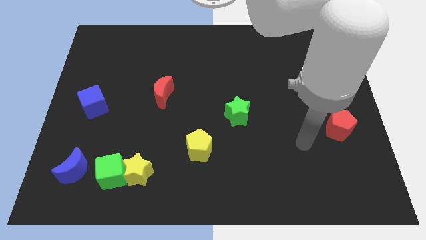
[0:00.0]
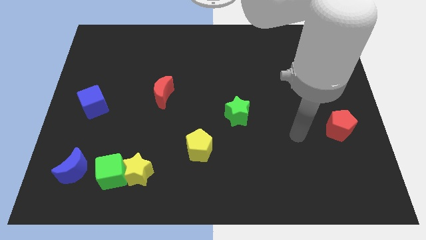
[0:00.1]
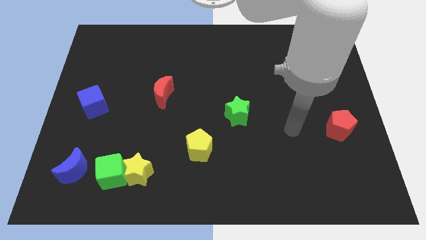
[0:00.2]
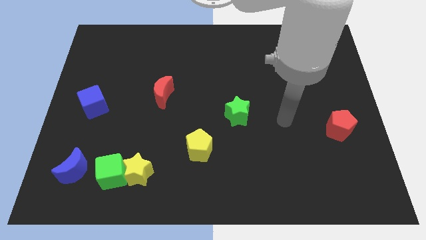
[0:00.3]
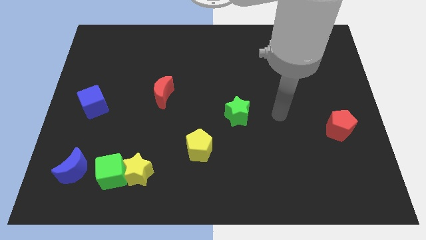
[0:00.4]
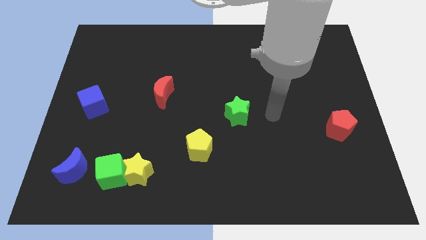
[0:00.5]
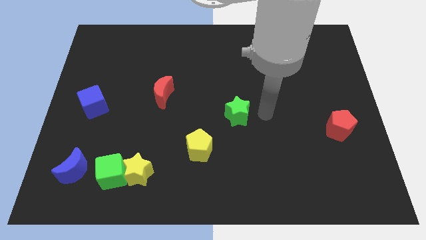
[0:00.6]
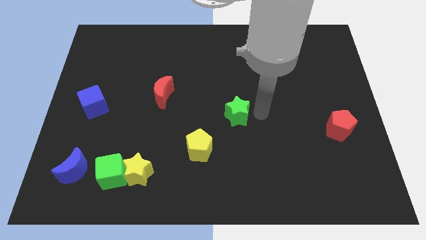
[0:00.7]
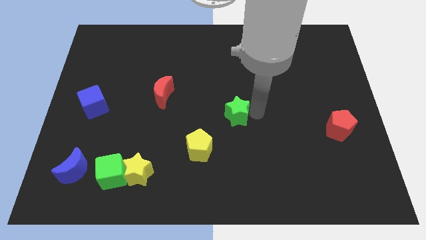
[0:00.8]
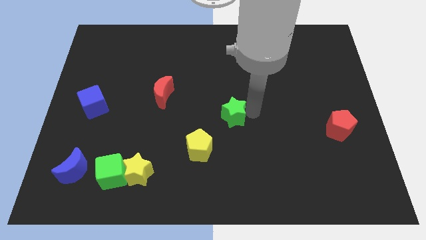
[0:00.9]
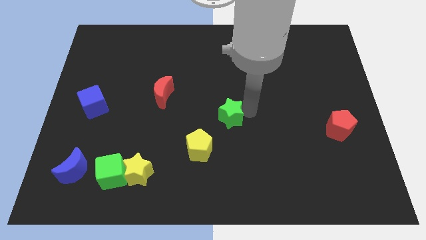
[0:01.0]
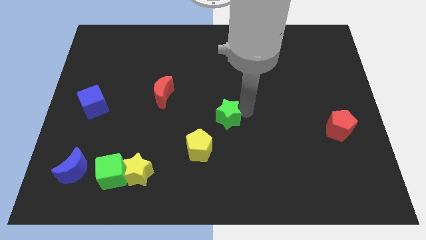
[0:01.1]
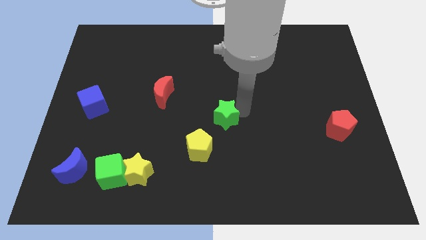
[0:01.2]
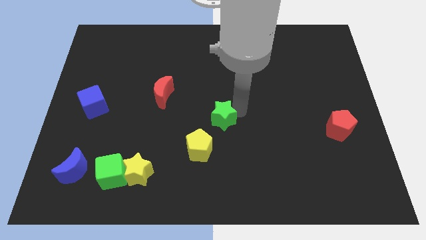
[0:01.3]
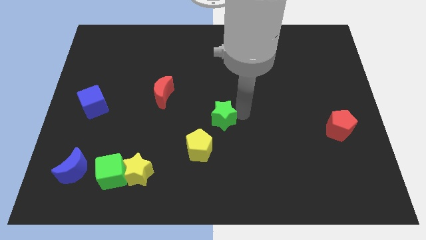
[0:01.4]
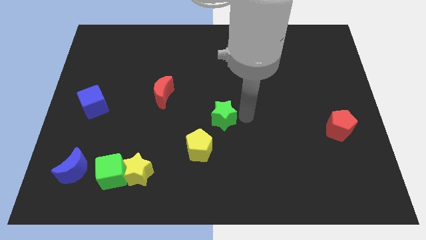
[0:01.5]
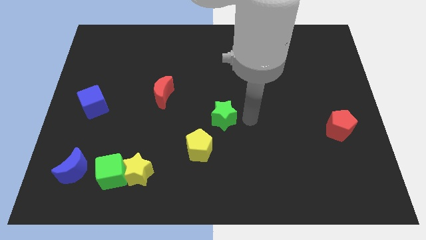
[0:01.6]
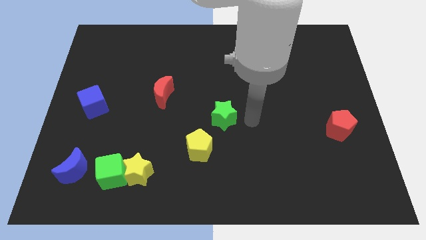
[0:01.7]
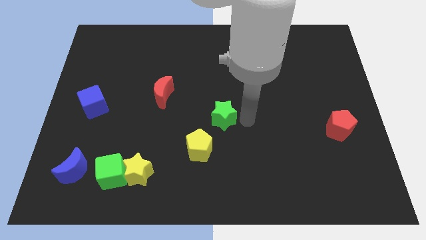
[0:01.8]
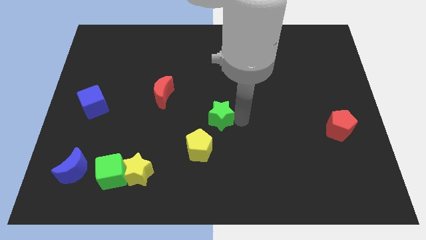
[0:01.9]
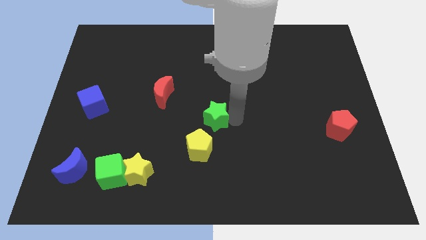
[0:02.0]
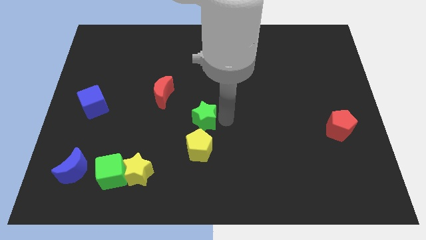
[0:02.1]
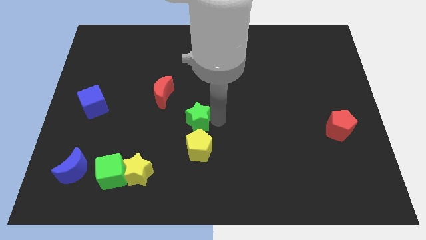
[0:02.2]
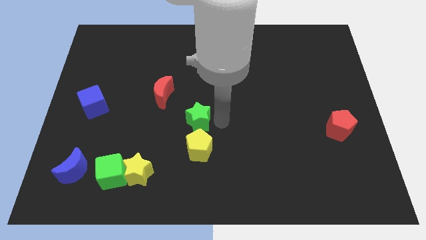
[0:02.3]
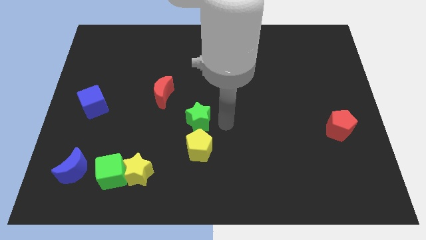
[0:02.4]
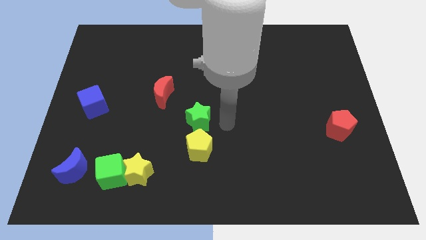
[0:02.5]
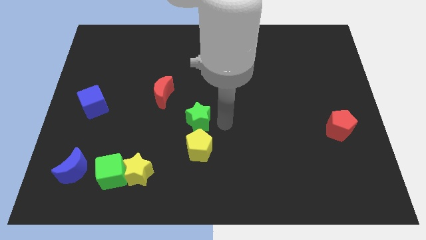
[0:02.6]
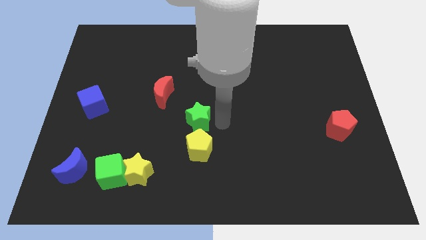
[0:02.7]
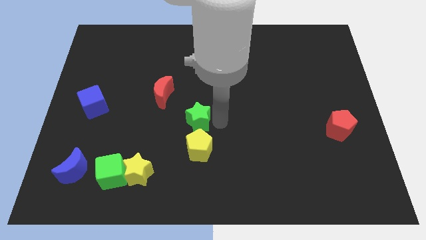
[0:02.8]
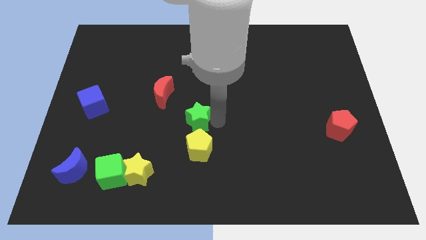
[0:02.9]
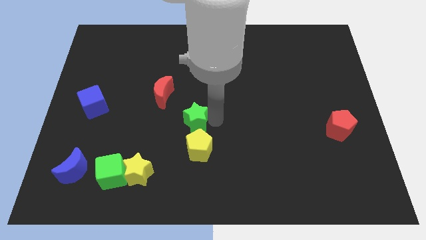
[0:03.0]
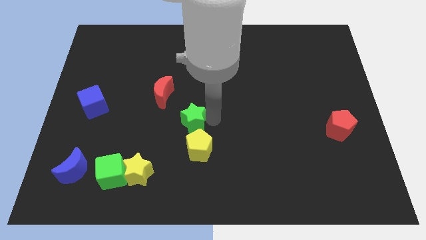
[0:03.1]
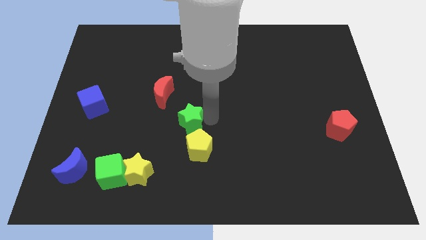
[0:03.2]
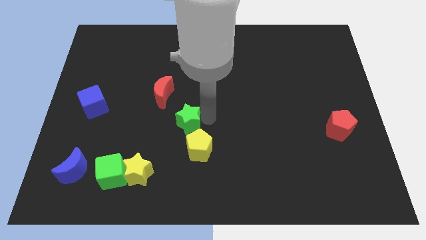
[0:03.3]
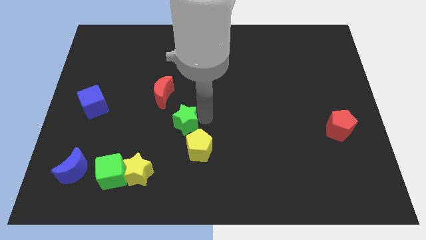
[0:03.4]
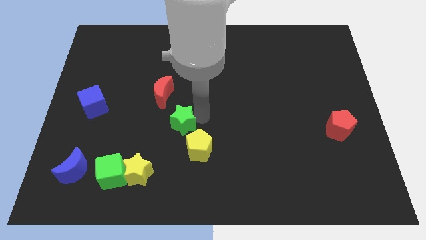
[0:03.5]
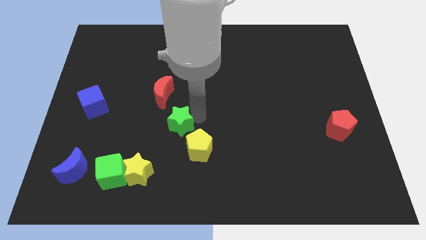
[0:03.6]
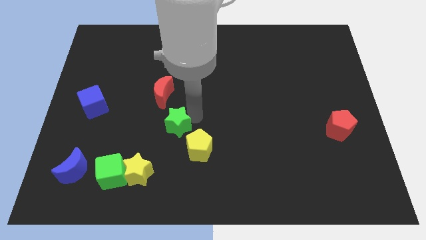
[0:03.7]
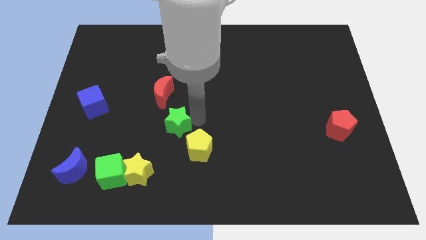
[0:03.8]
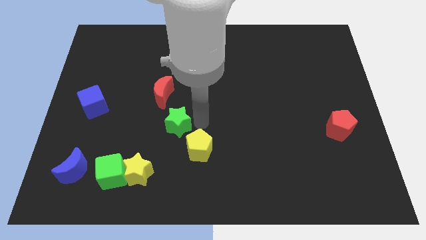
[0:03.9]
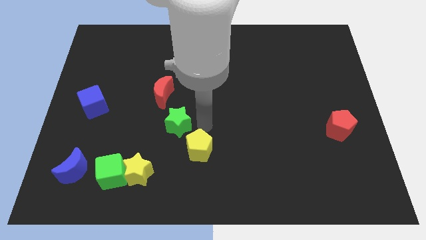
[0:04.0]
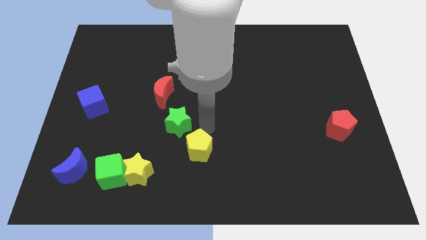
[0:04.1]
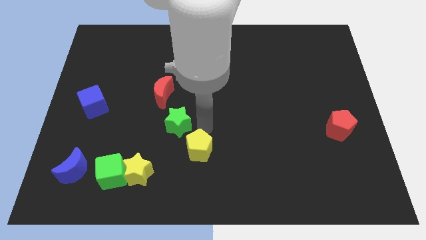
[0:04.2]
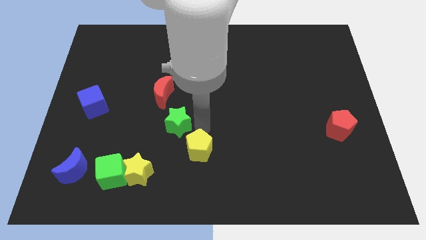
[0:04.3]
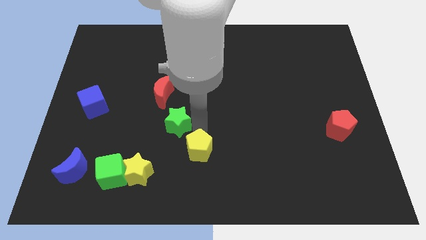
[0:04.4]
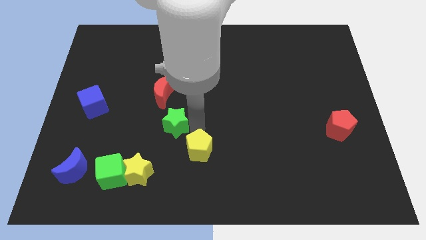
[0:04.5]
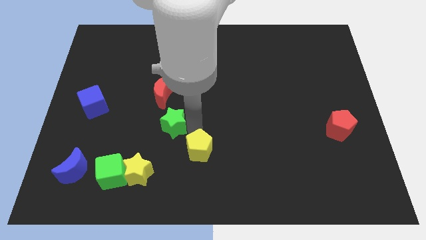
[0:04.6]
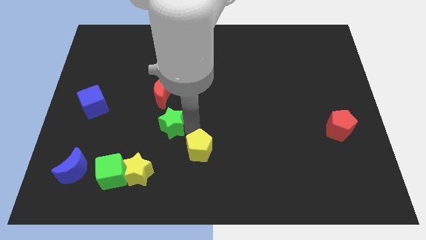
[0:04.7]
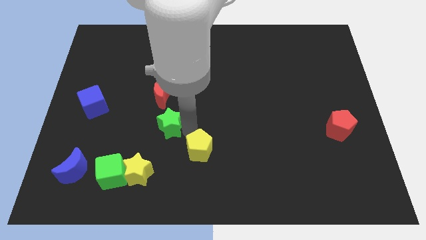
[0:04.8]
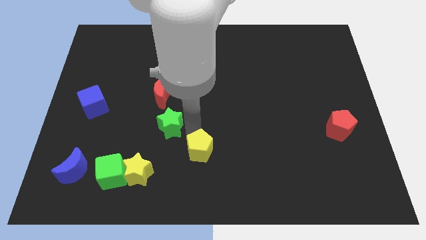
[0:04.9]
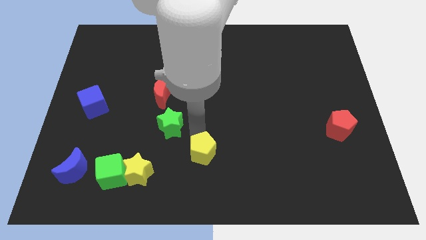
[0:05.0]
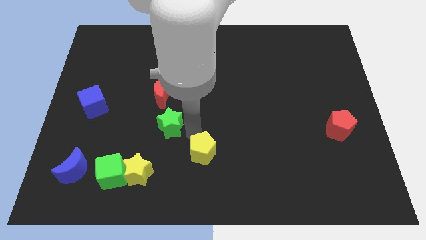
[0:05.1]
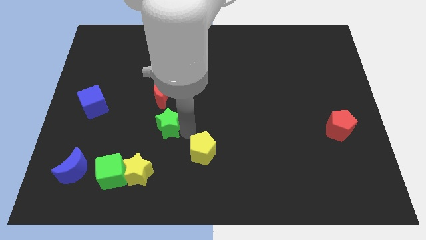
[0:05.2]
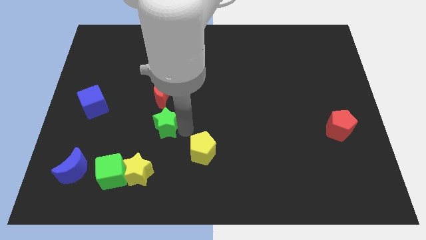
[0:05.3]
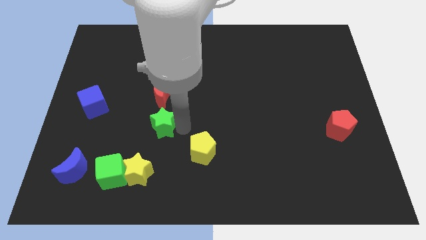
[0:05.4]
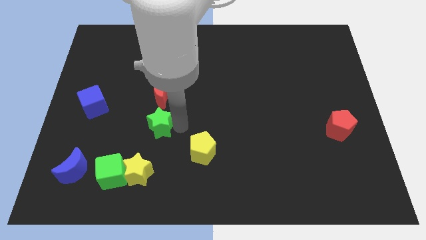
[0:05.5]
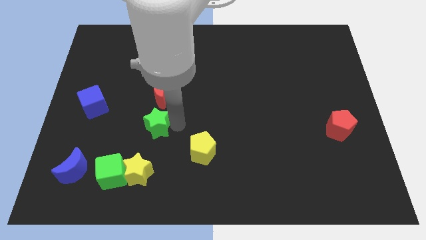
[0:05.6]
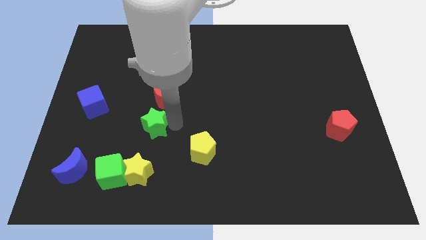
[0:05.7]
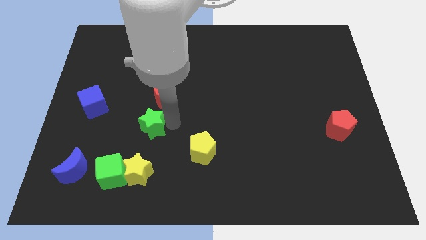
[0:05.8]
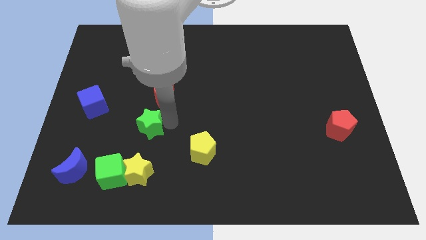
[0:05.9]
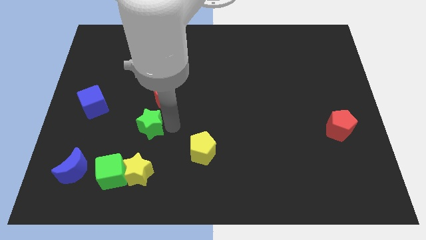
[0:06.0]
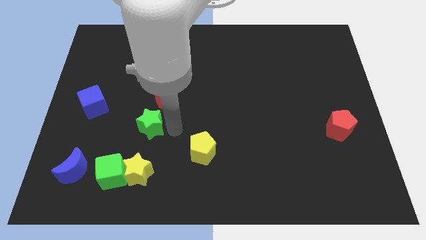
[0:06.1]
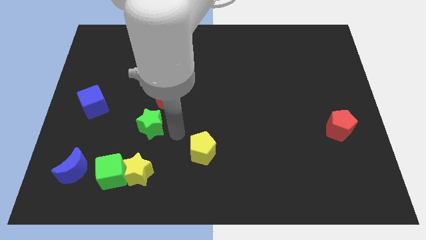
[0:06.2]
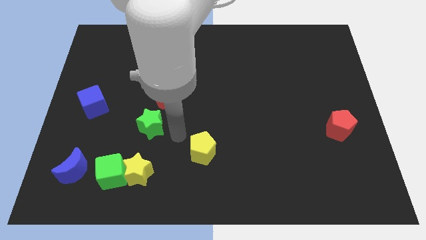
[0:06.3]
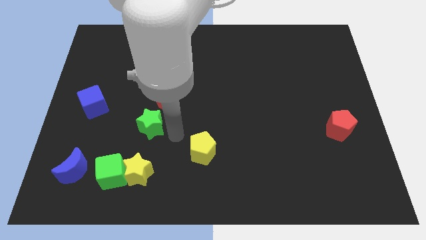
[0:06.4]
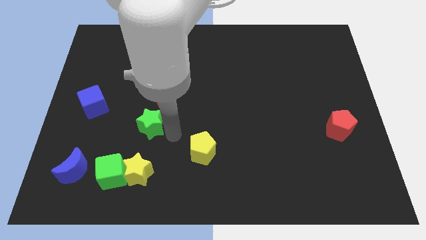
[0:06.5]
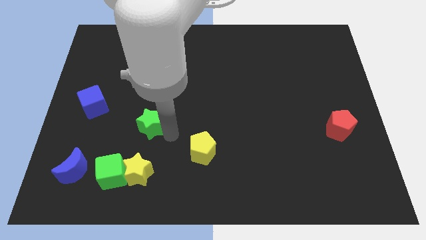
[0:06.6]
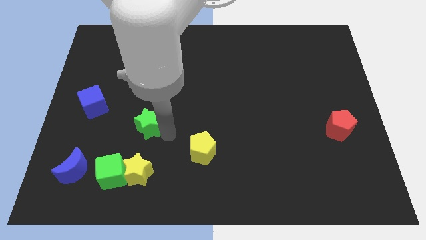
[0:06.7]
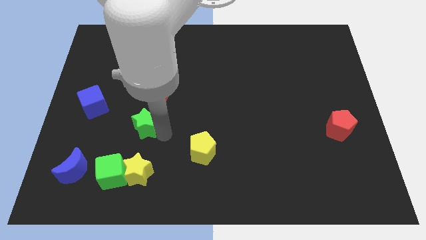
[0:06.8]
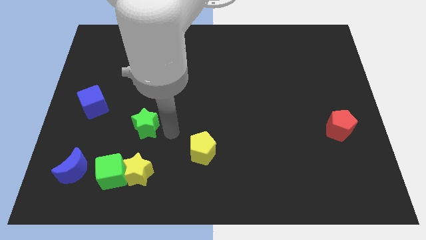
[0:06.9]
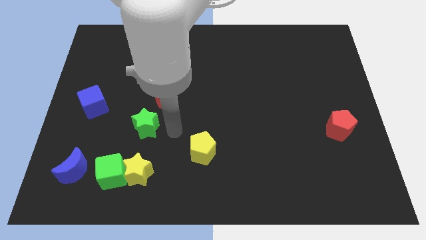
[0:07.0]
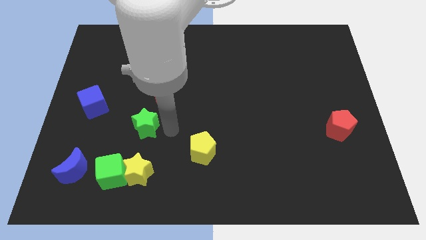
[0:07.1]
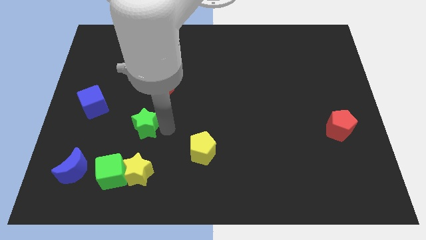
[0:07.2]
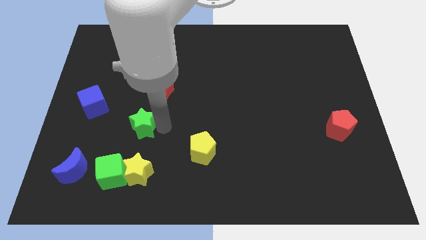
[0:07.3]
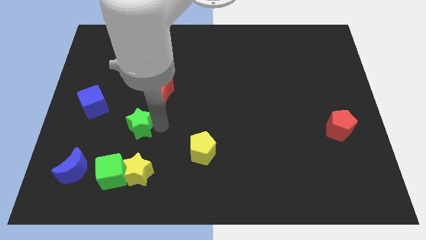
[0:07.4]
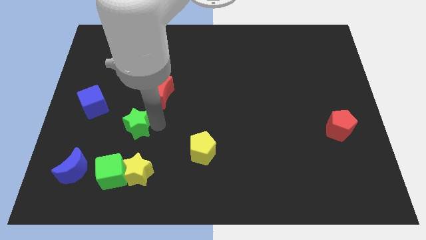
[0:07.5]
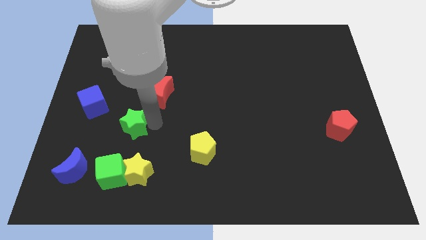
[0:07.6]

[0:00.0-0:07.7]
slide the green star to the bottom right side of the blue cube
